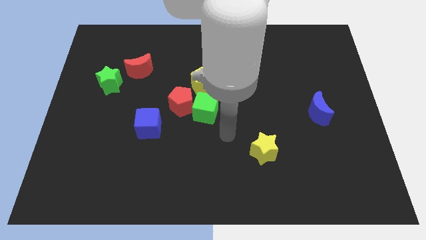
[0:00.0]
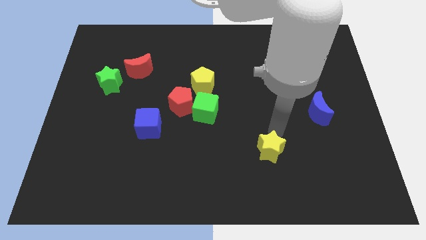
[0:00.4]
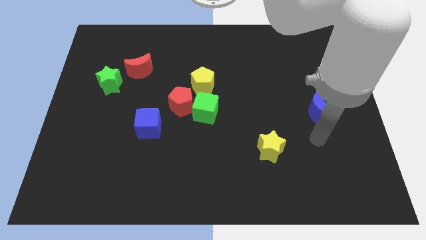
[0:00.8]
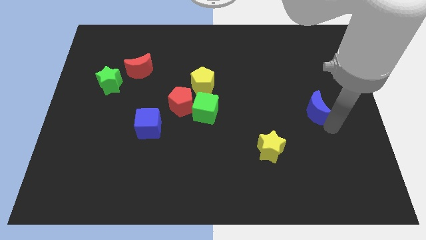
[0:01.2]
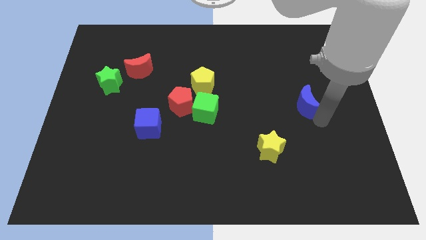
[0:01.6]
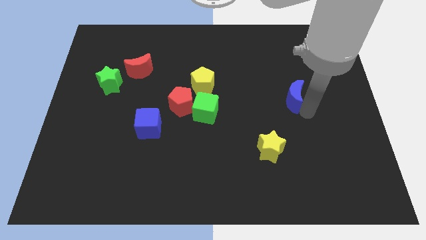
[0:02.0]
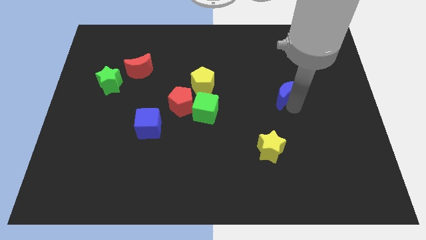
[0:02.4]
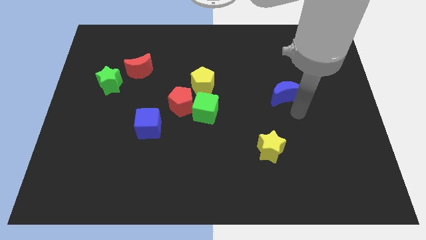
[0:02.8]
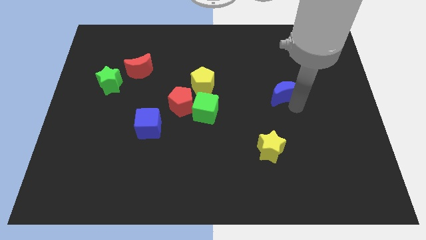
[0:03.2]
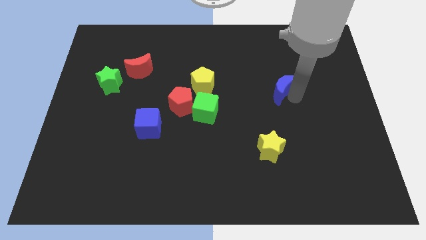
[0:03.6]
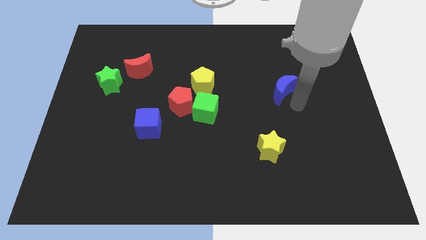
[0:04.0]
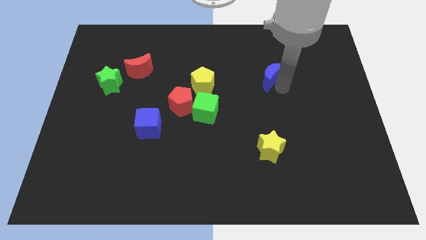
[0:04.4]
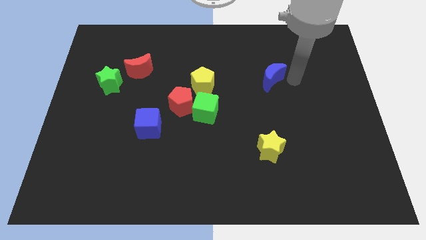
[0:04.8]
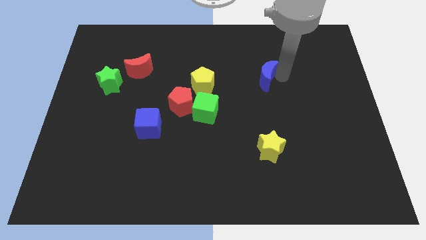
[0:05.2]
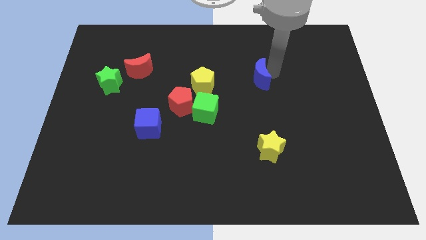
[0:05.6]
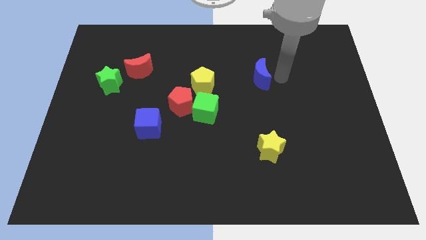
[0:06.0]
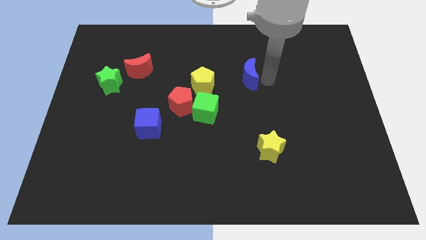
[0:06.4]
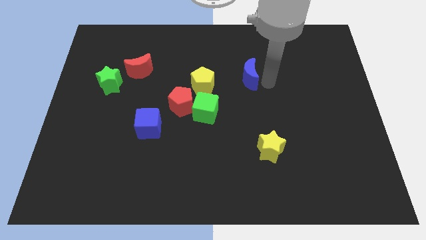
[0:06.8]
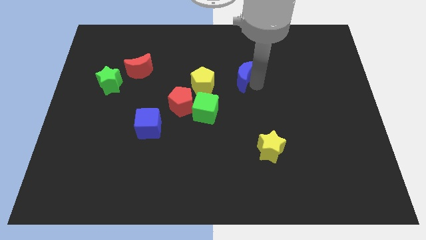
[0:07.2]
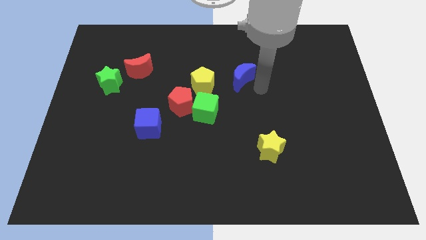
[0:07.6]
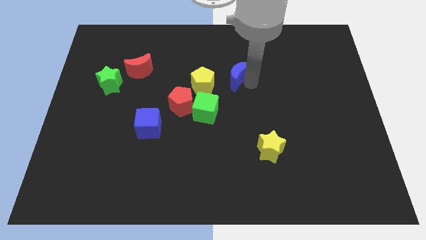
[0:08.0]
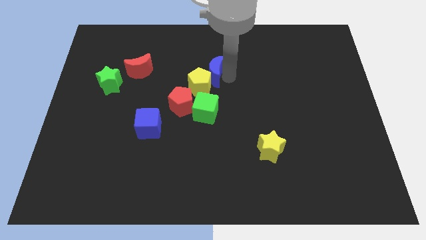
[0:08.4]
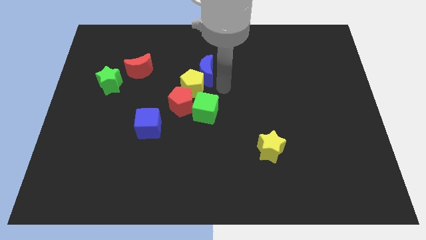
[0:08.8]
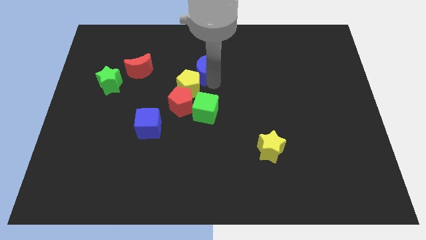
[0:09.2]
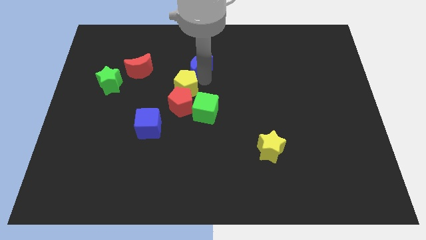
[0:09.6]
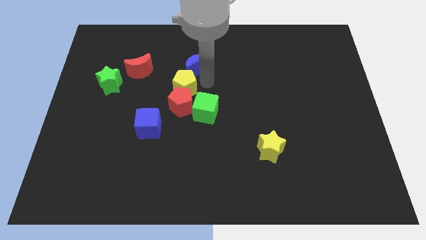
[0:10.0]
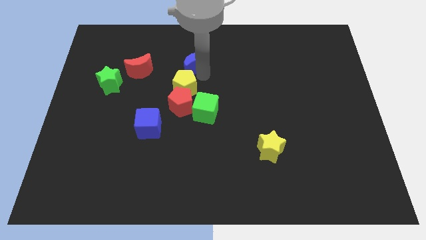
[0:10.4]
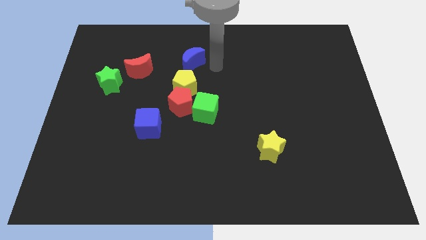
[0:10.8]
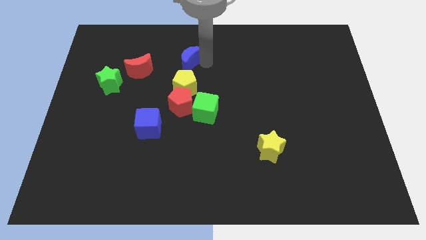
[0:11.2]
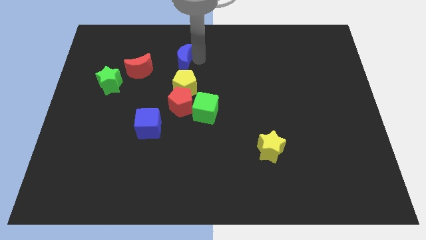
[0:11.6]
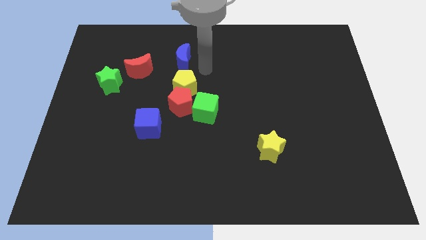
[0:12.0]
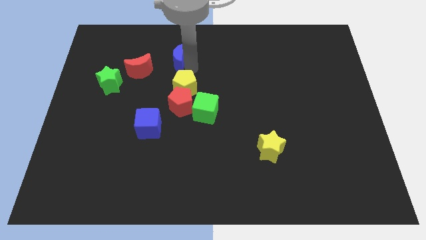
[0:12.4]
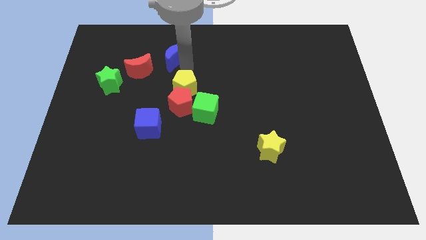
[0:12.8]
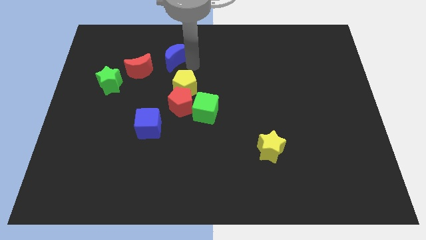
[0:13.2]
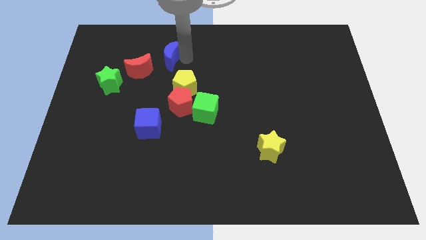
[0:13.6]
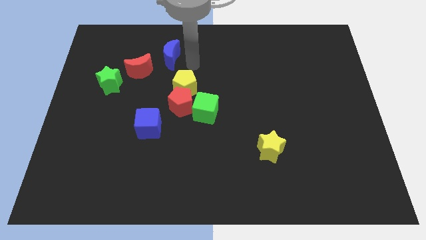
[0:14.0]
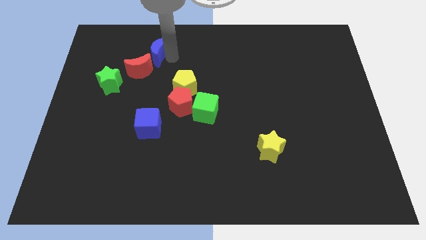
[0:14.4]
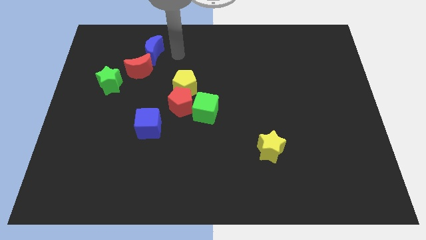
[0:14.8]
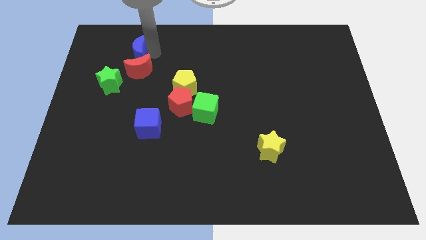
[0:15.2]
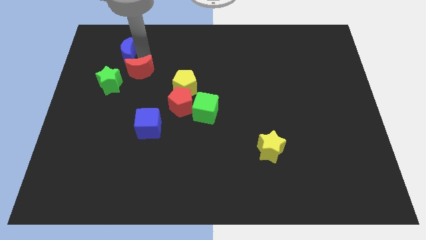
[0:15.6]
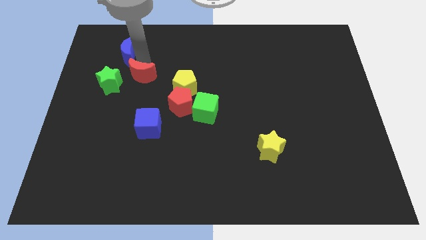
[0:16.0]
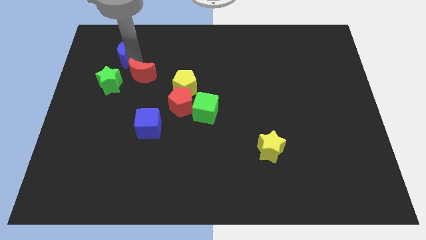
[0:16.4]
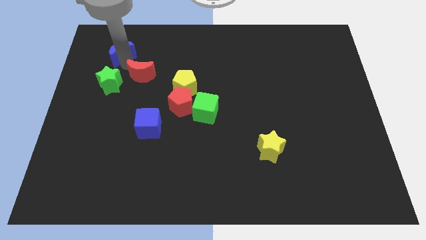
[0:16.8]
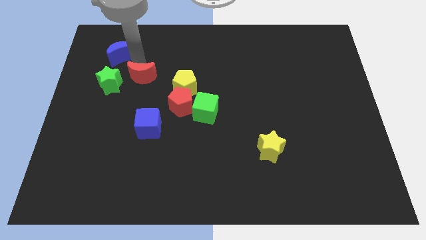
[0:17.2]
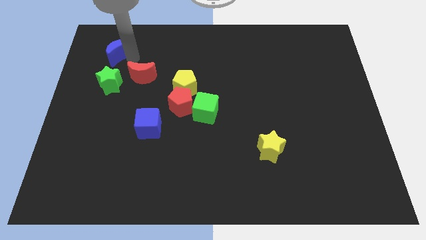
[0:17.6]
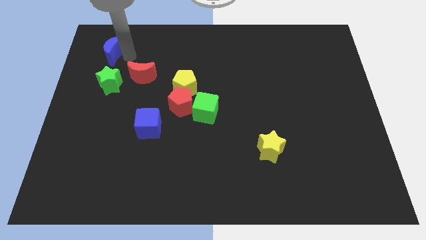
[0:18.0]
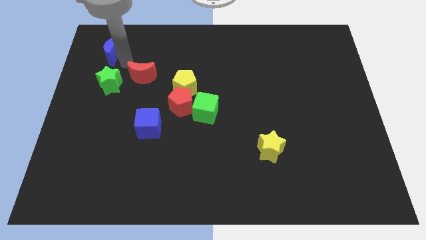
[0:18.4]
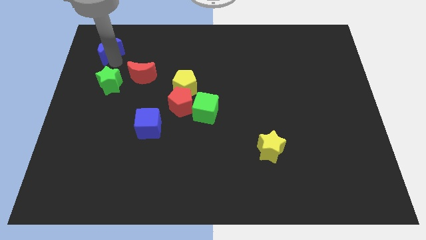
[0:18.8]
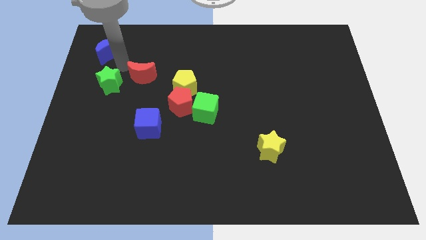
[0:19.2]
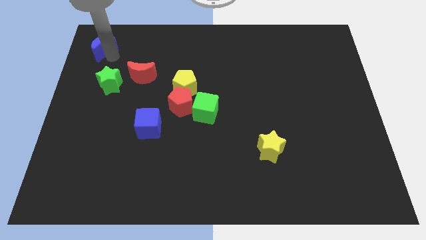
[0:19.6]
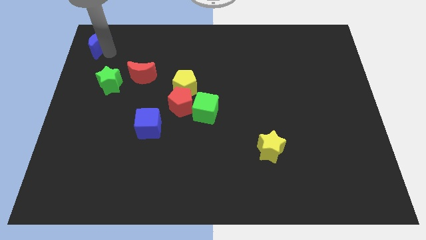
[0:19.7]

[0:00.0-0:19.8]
move the blue moon to the top left corner

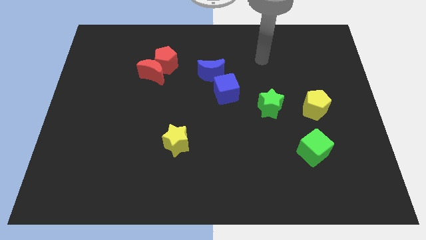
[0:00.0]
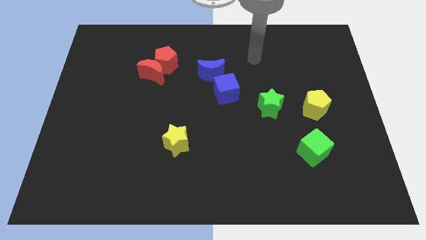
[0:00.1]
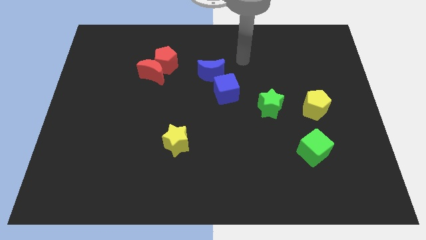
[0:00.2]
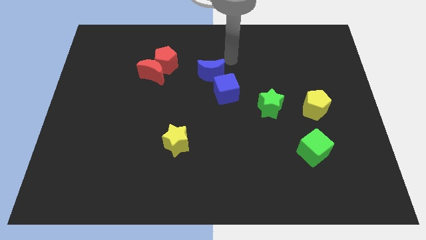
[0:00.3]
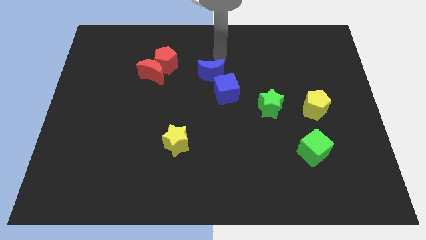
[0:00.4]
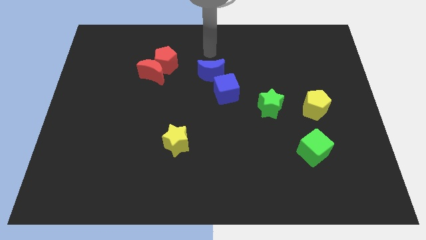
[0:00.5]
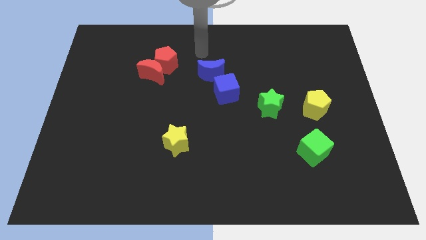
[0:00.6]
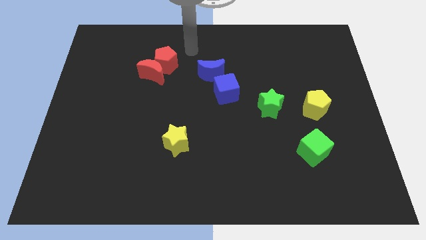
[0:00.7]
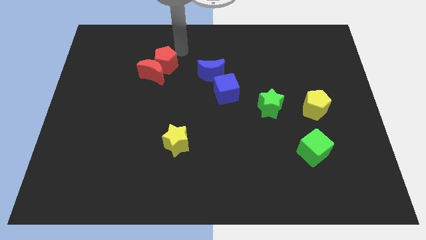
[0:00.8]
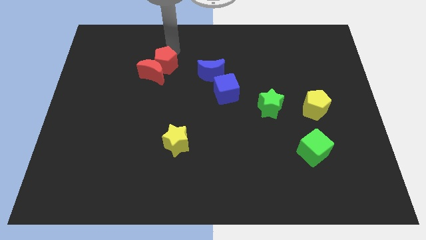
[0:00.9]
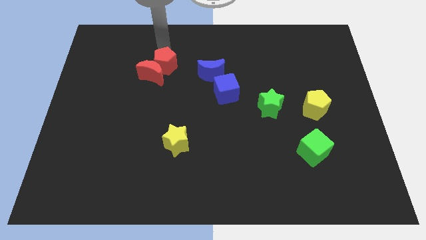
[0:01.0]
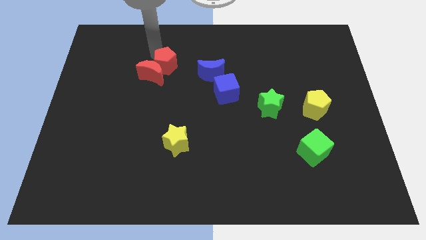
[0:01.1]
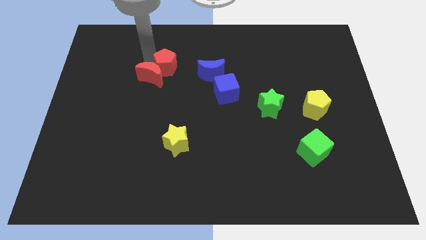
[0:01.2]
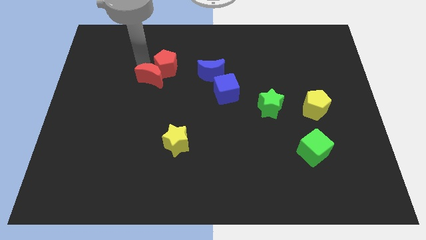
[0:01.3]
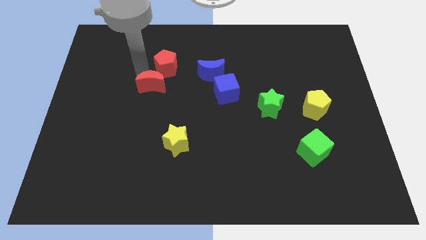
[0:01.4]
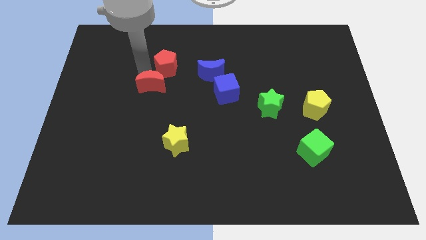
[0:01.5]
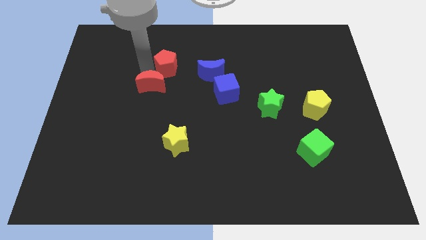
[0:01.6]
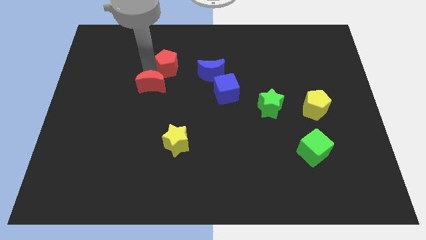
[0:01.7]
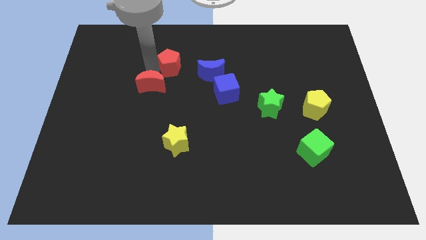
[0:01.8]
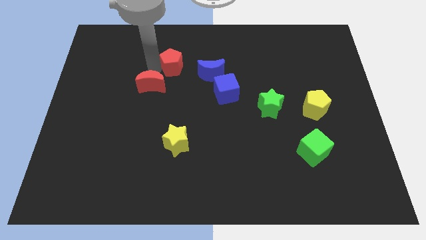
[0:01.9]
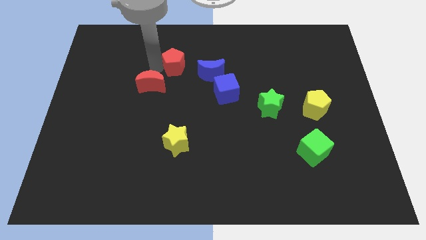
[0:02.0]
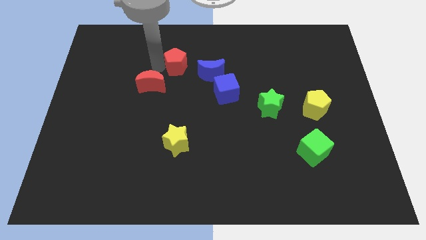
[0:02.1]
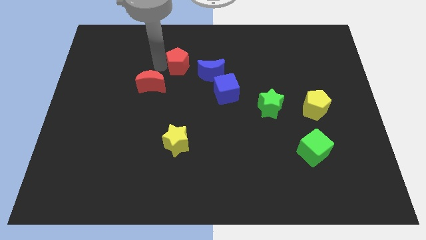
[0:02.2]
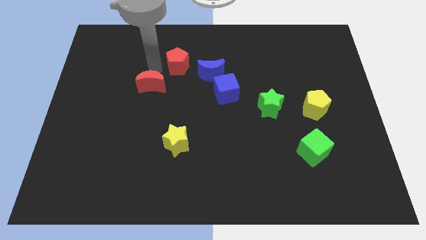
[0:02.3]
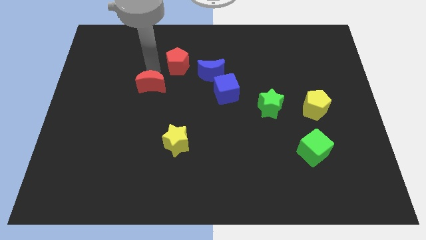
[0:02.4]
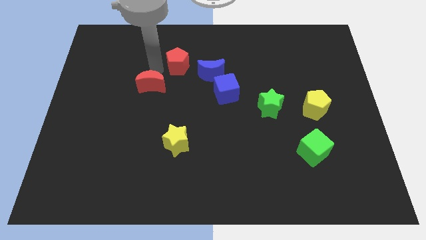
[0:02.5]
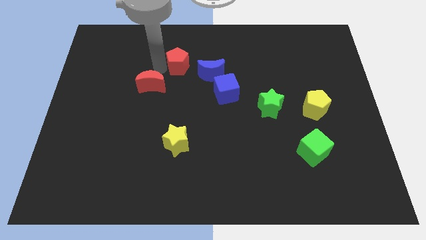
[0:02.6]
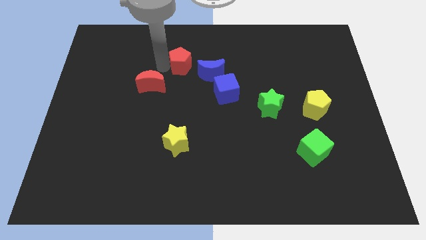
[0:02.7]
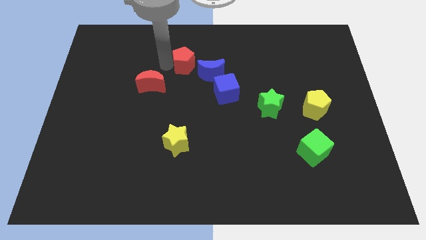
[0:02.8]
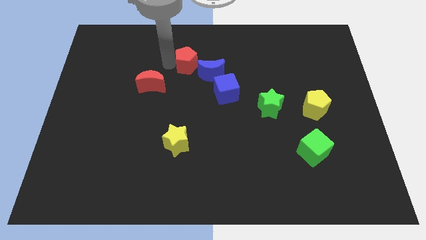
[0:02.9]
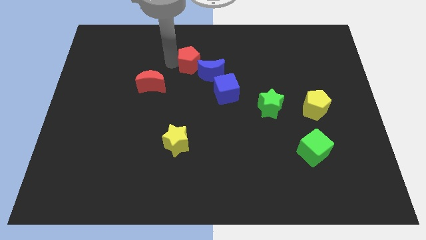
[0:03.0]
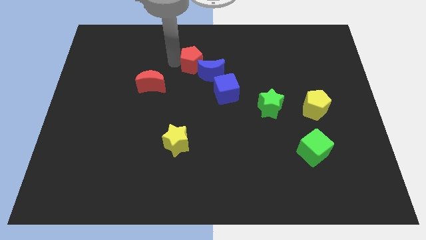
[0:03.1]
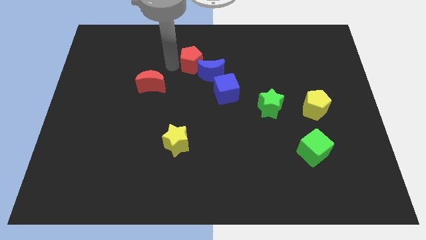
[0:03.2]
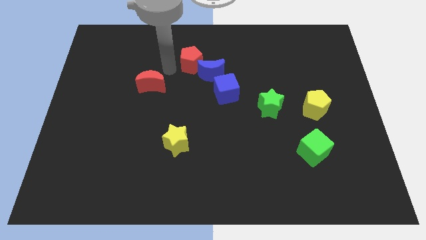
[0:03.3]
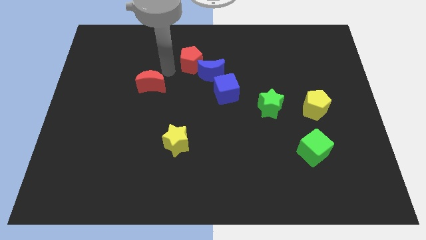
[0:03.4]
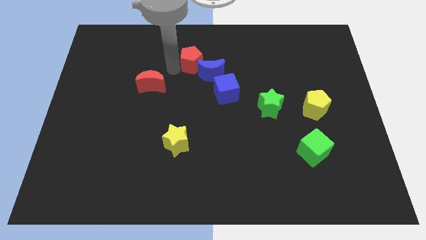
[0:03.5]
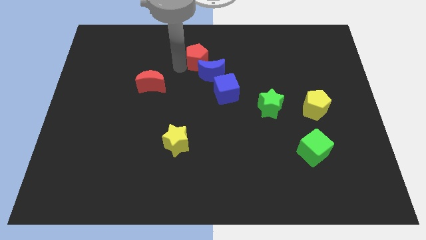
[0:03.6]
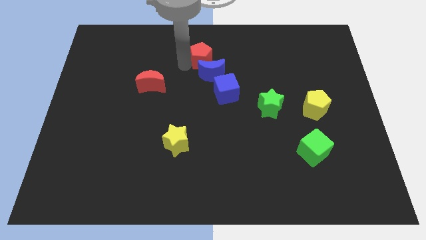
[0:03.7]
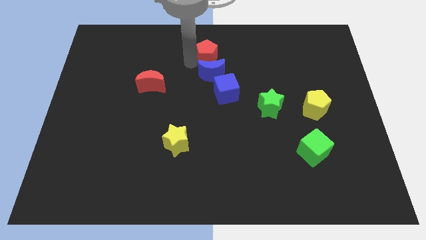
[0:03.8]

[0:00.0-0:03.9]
move the red pentagon to the towards your base
